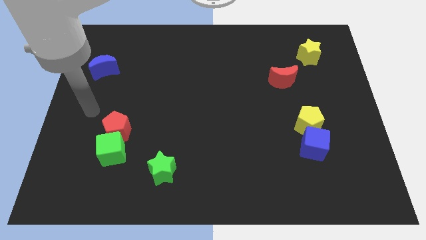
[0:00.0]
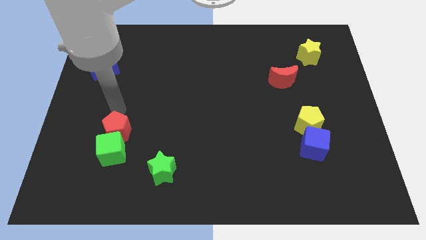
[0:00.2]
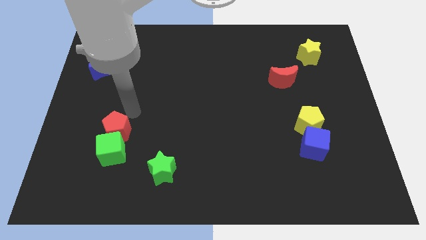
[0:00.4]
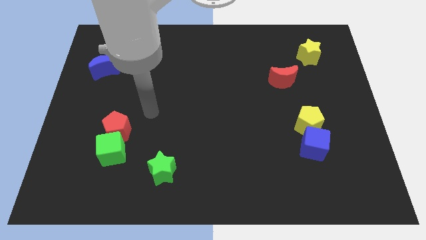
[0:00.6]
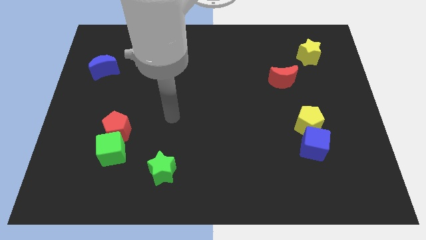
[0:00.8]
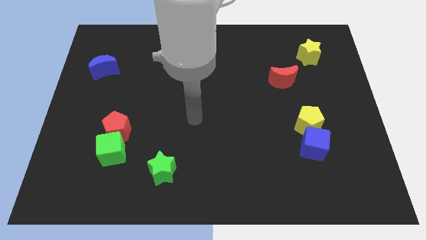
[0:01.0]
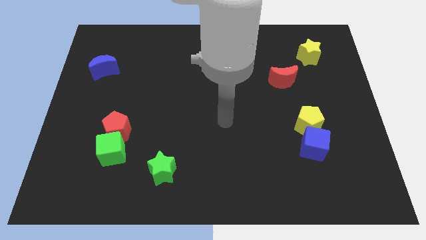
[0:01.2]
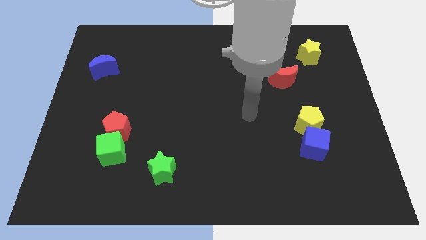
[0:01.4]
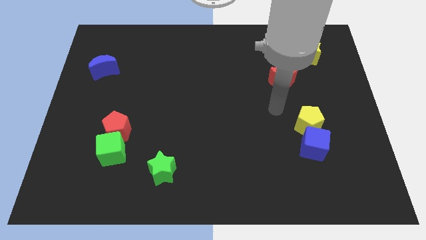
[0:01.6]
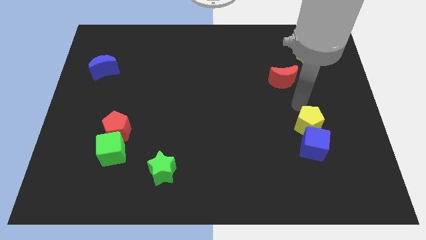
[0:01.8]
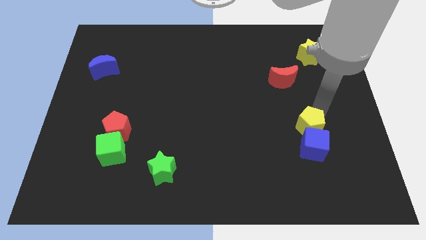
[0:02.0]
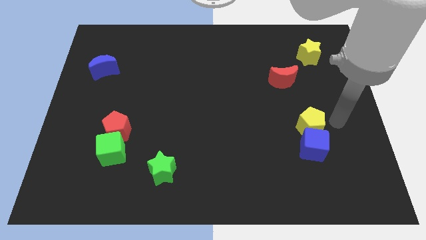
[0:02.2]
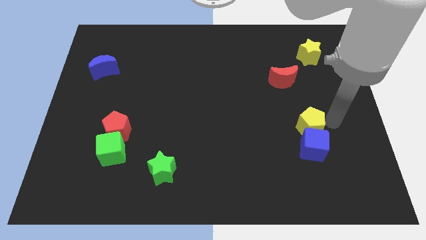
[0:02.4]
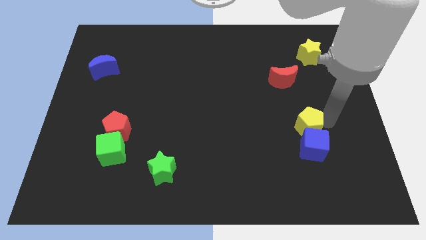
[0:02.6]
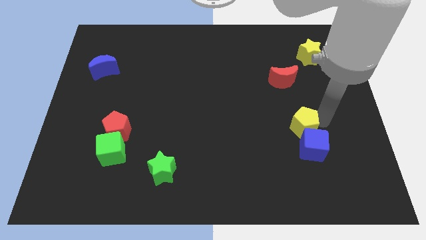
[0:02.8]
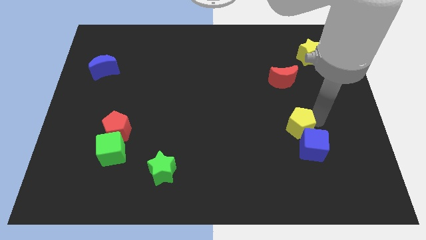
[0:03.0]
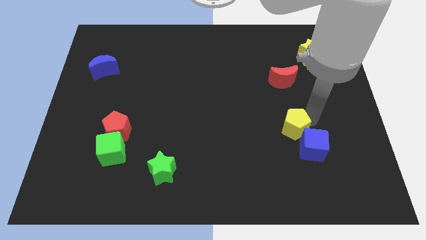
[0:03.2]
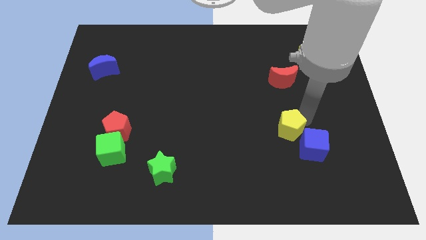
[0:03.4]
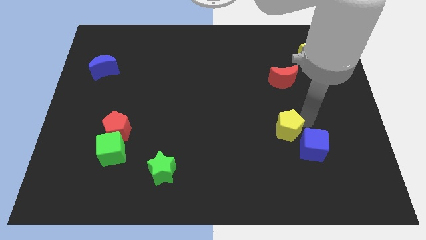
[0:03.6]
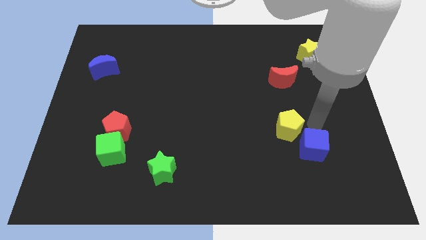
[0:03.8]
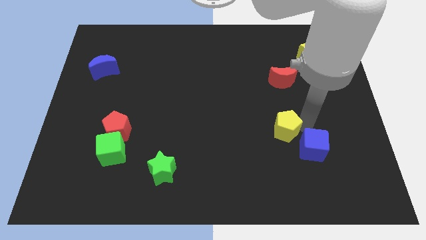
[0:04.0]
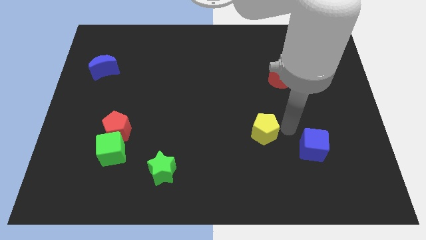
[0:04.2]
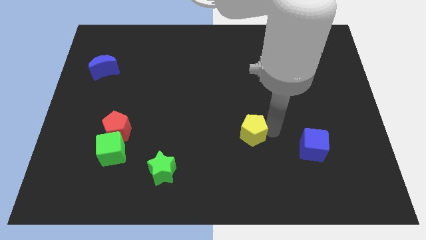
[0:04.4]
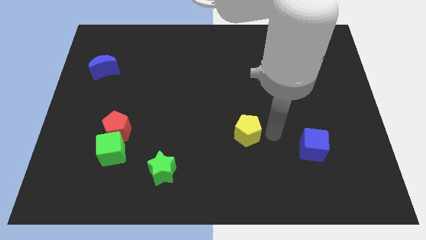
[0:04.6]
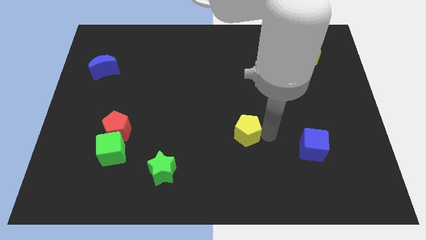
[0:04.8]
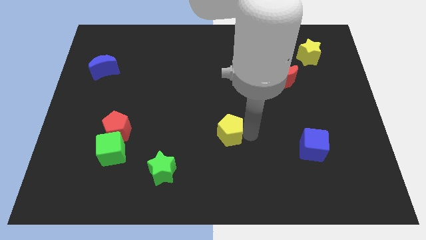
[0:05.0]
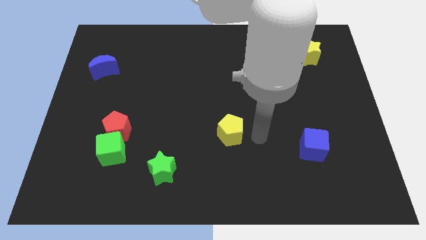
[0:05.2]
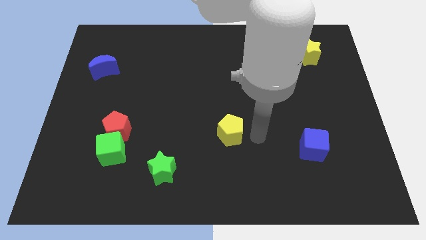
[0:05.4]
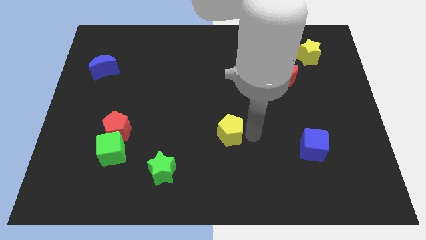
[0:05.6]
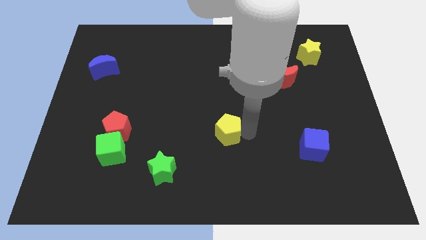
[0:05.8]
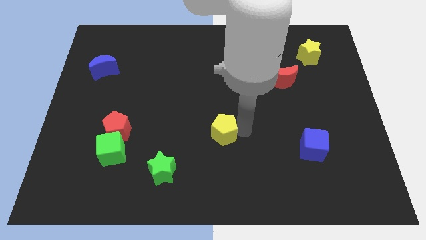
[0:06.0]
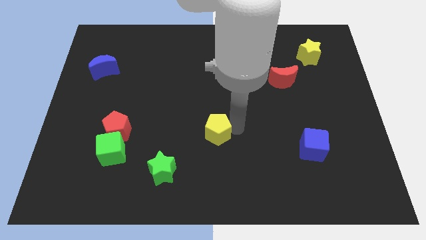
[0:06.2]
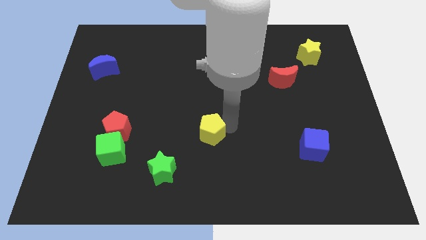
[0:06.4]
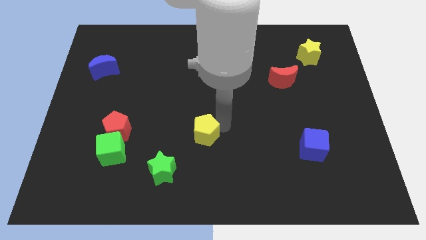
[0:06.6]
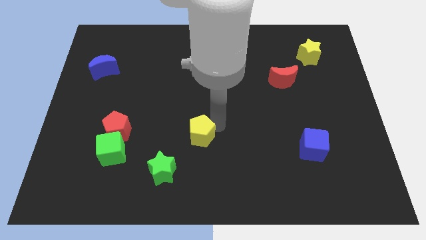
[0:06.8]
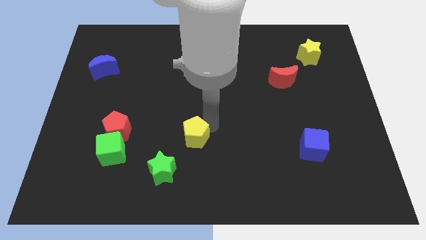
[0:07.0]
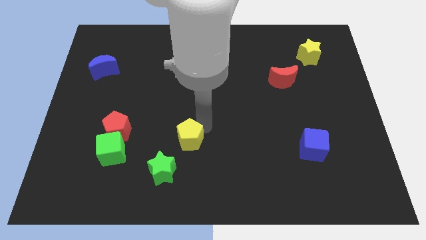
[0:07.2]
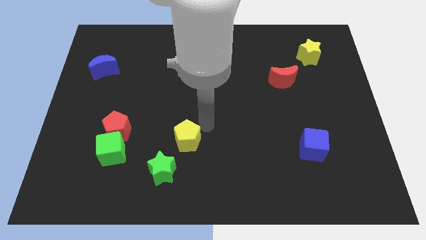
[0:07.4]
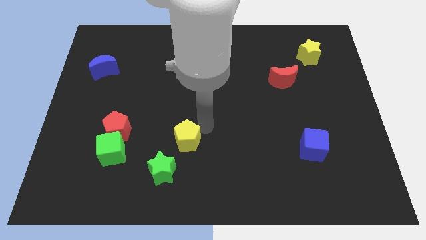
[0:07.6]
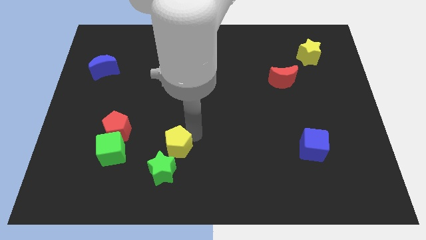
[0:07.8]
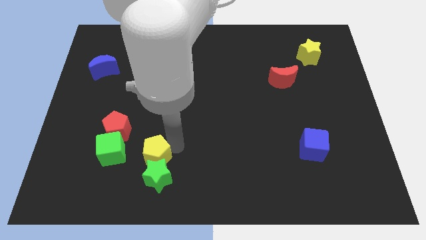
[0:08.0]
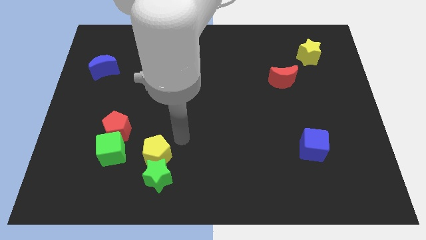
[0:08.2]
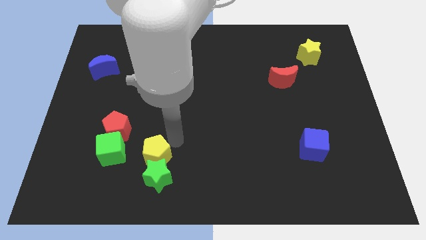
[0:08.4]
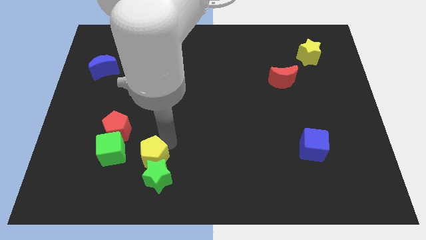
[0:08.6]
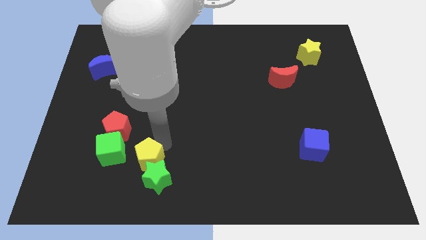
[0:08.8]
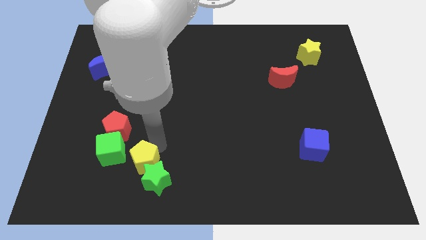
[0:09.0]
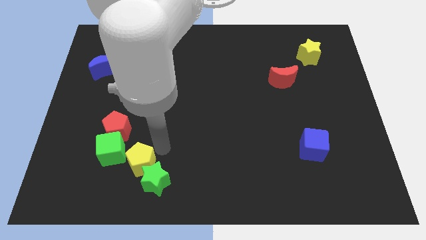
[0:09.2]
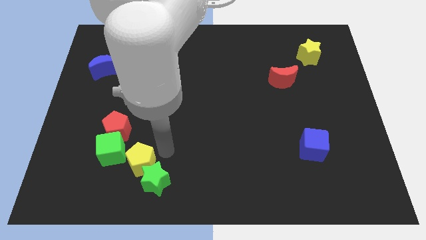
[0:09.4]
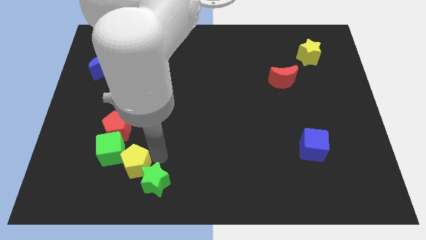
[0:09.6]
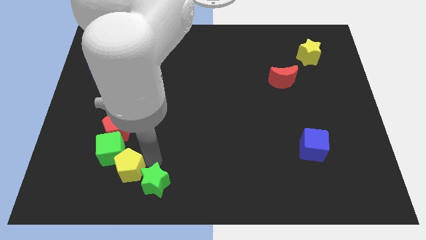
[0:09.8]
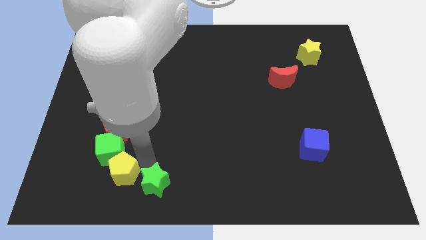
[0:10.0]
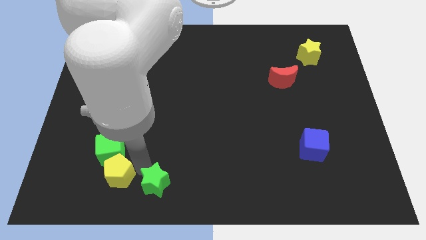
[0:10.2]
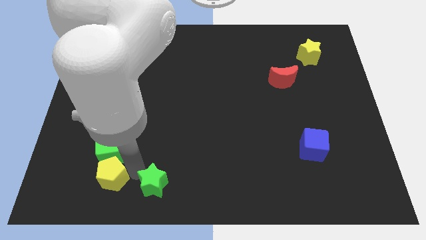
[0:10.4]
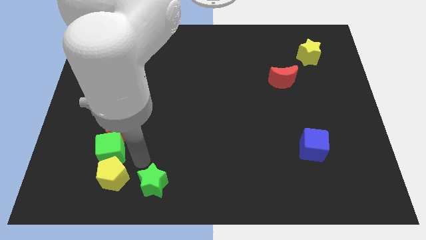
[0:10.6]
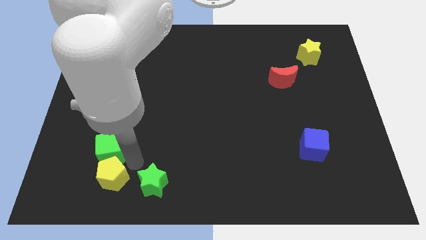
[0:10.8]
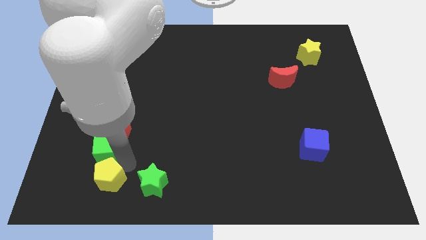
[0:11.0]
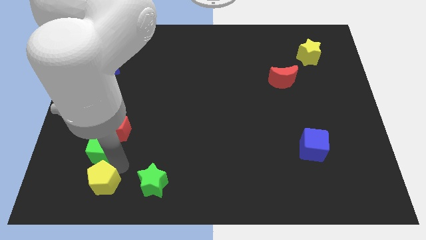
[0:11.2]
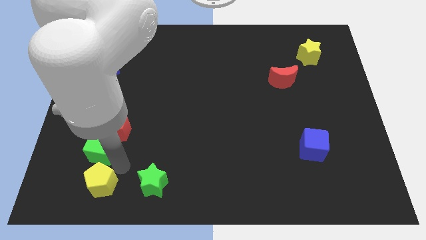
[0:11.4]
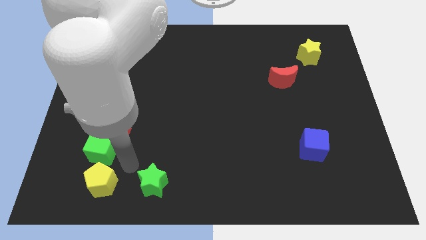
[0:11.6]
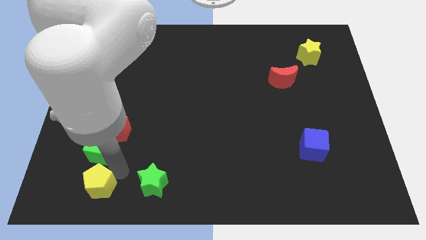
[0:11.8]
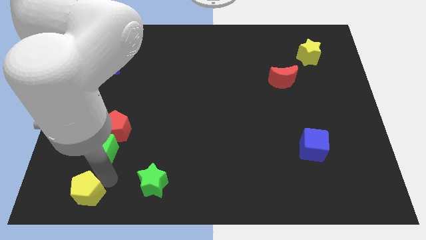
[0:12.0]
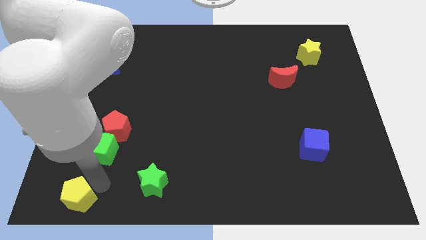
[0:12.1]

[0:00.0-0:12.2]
push the yellow pentagon to the bottom left corner
